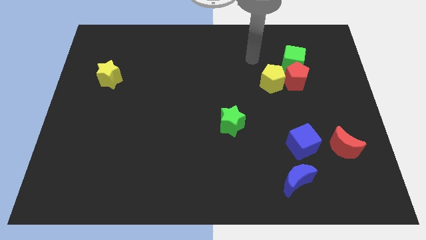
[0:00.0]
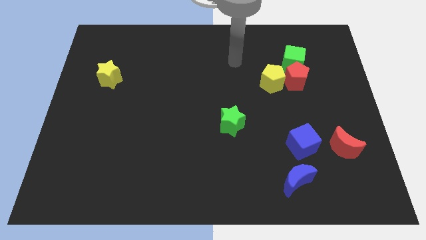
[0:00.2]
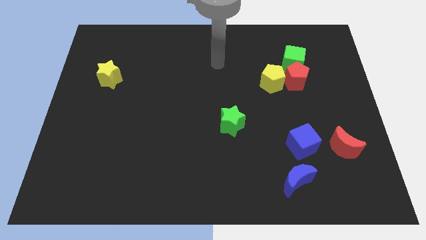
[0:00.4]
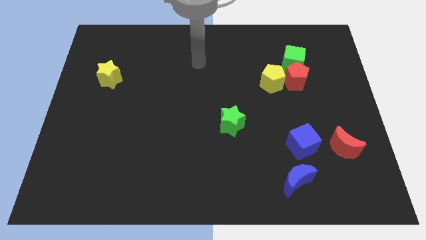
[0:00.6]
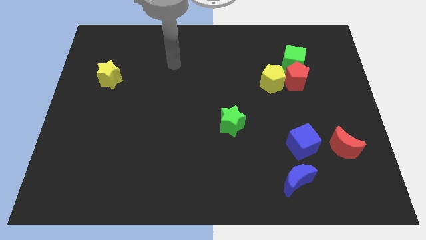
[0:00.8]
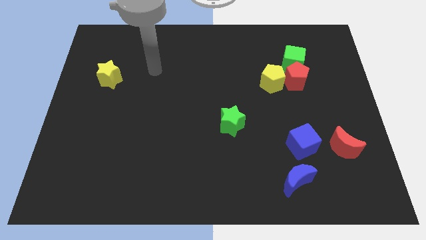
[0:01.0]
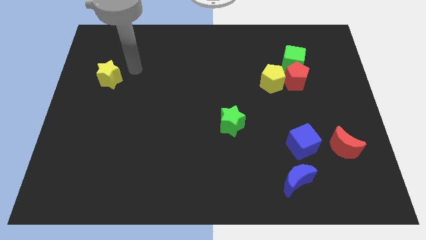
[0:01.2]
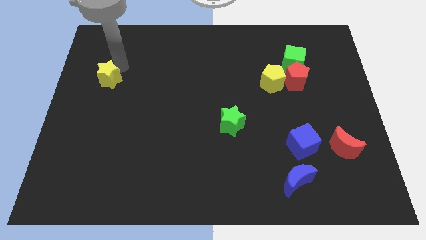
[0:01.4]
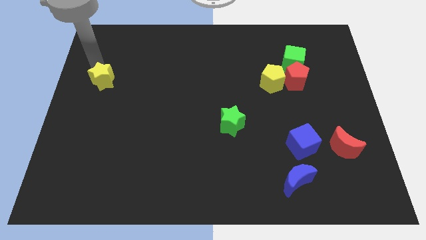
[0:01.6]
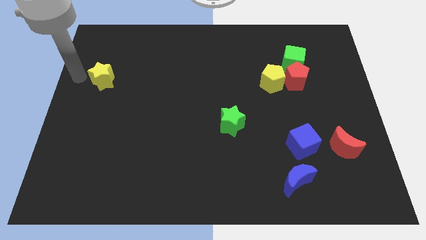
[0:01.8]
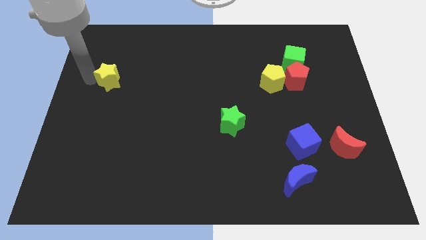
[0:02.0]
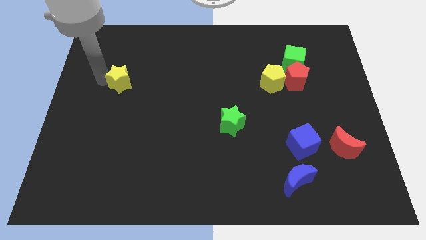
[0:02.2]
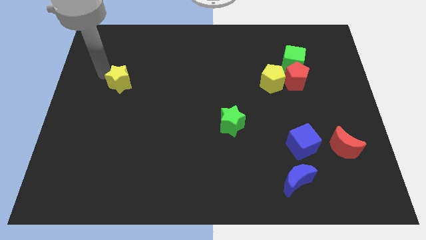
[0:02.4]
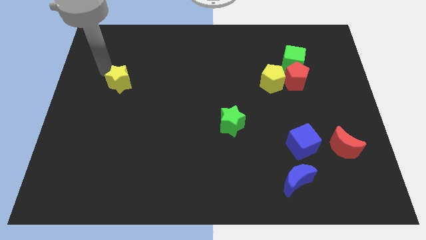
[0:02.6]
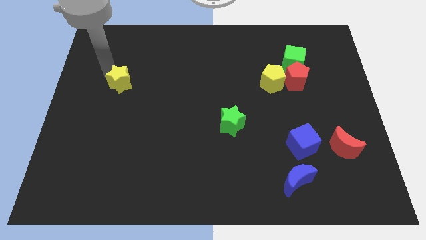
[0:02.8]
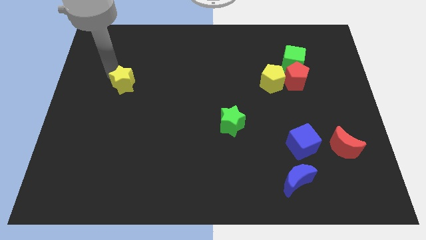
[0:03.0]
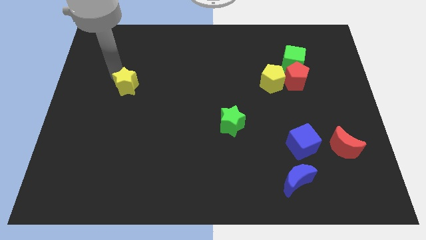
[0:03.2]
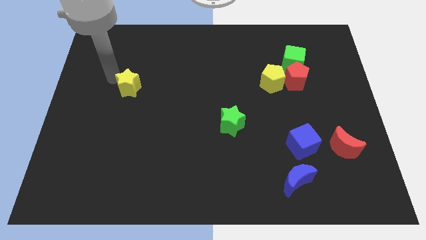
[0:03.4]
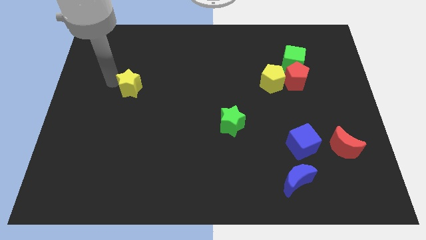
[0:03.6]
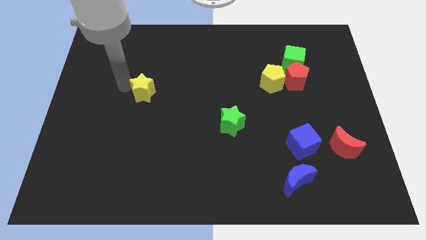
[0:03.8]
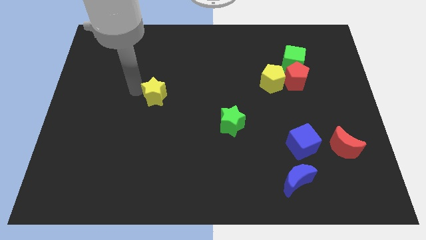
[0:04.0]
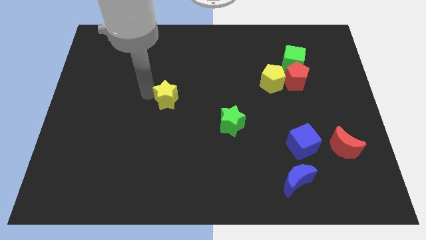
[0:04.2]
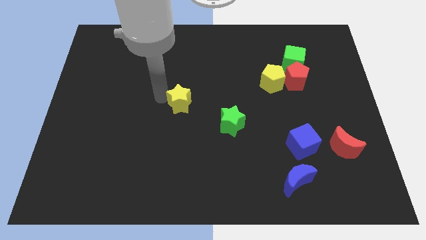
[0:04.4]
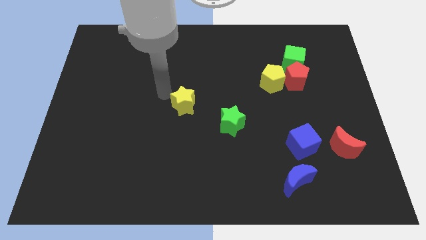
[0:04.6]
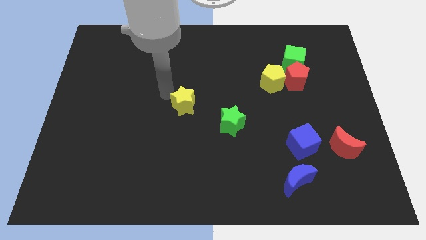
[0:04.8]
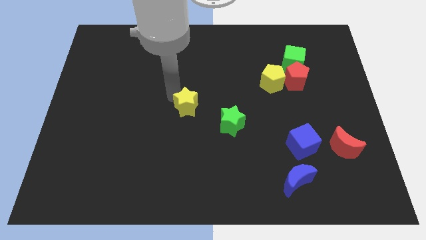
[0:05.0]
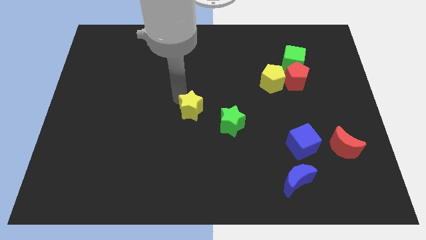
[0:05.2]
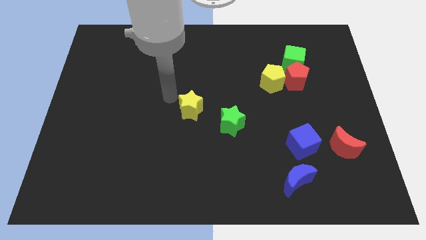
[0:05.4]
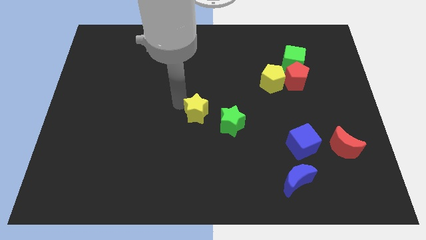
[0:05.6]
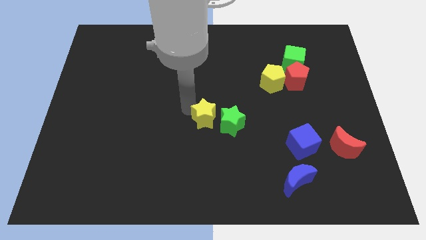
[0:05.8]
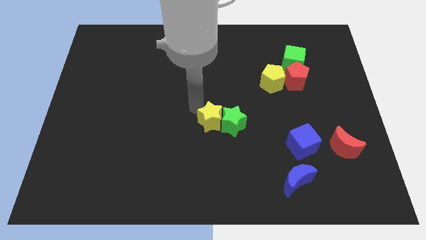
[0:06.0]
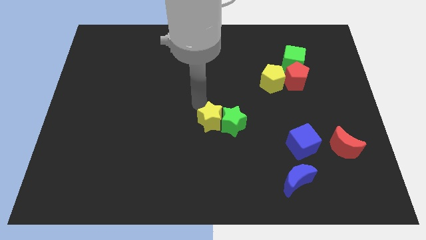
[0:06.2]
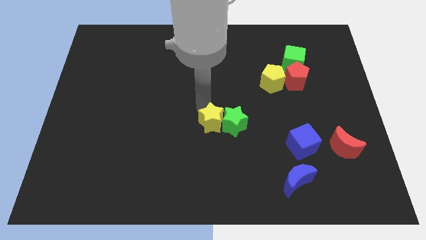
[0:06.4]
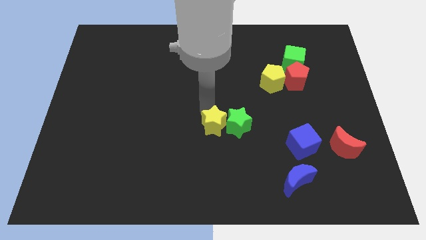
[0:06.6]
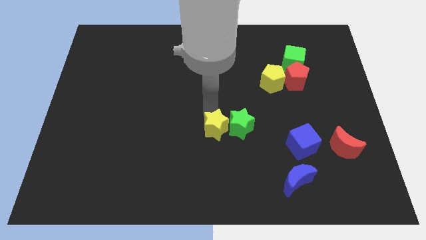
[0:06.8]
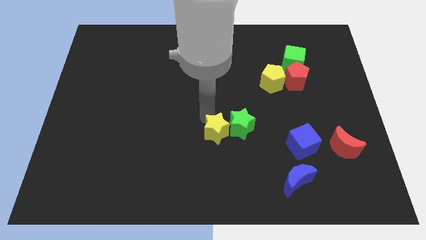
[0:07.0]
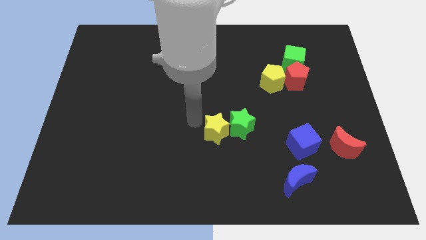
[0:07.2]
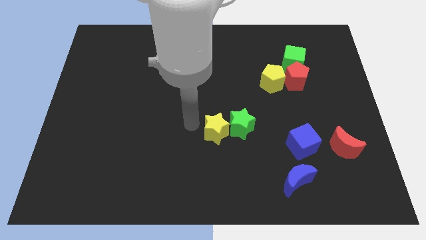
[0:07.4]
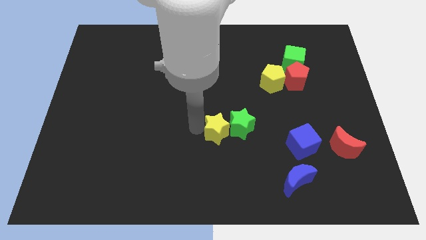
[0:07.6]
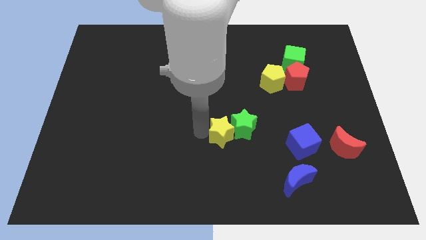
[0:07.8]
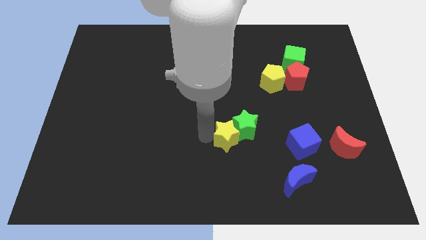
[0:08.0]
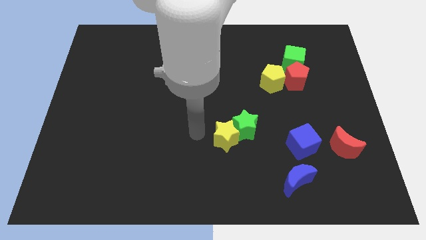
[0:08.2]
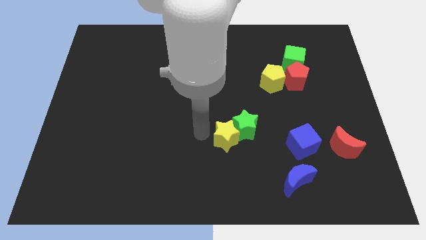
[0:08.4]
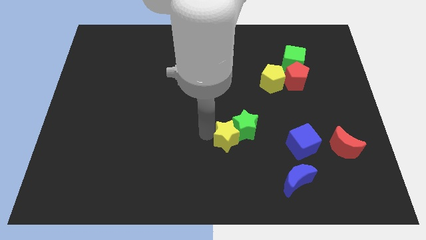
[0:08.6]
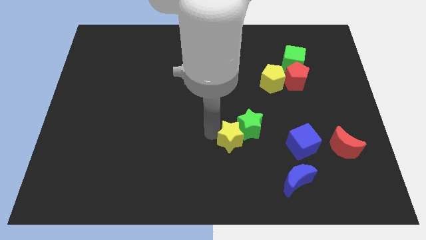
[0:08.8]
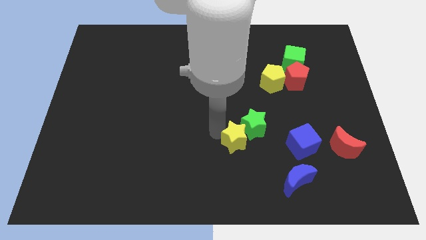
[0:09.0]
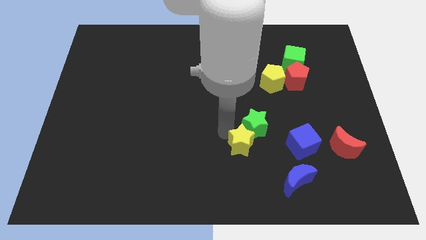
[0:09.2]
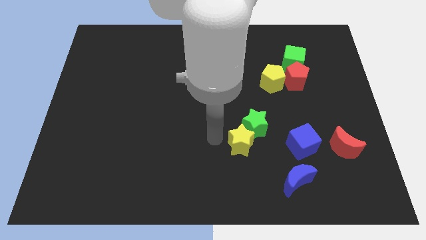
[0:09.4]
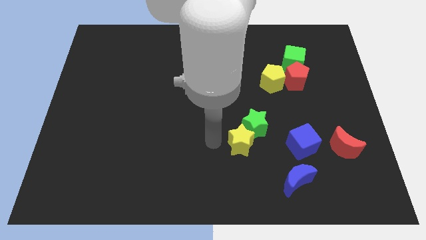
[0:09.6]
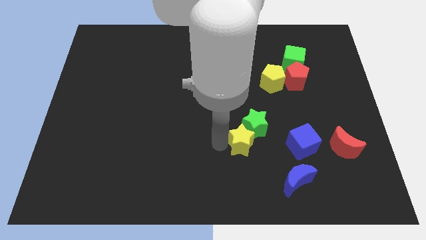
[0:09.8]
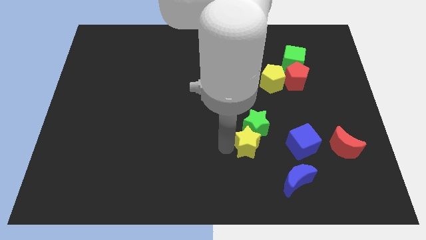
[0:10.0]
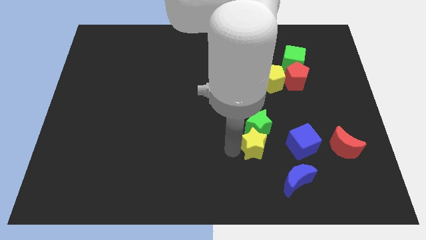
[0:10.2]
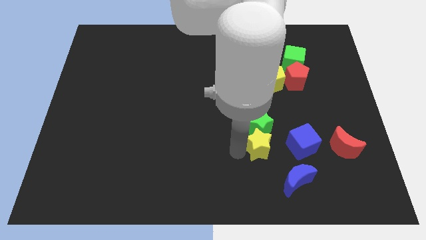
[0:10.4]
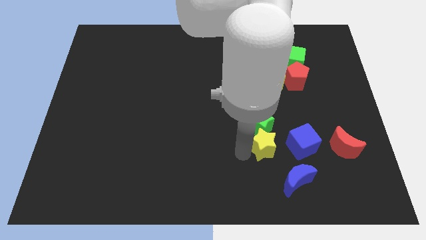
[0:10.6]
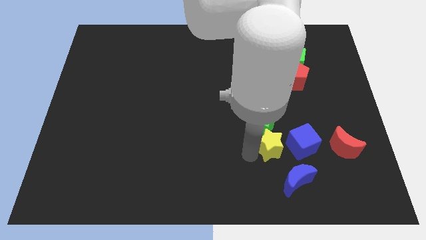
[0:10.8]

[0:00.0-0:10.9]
push the yellow star left of the red moon

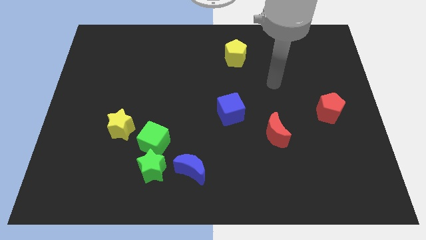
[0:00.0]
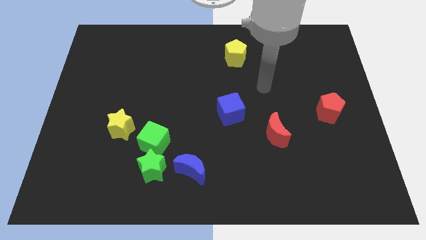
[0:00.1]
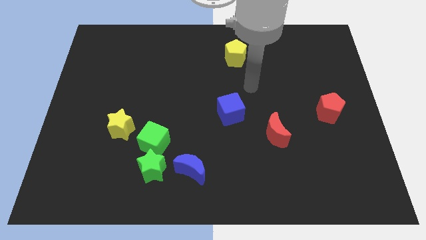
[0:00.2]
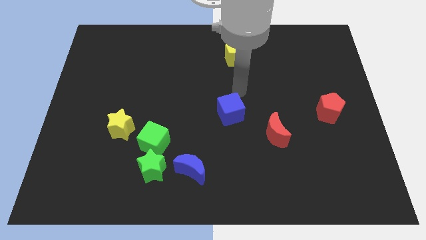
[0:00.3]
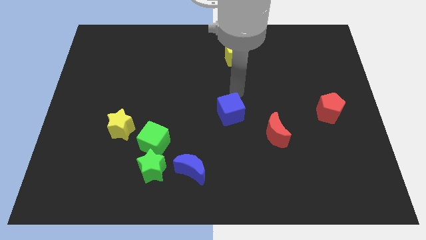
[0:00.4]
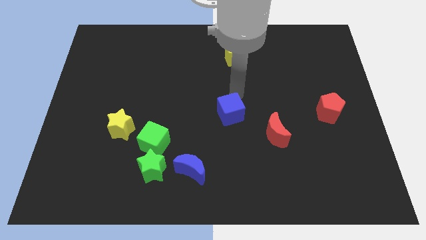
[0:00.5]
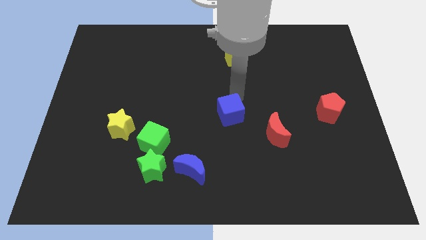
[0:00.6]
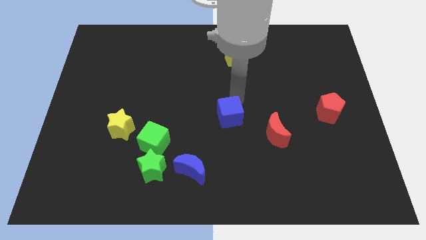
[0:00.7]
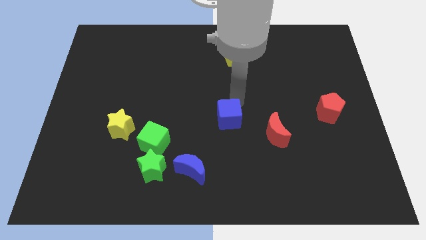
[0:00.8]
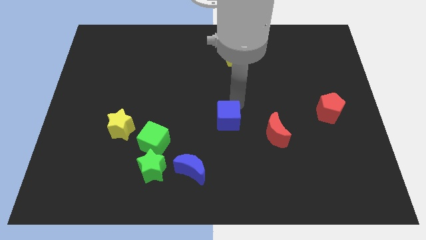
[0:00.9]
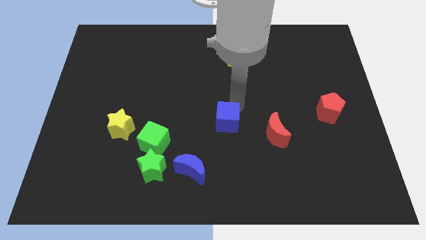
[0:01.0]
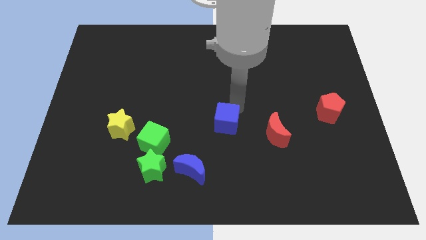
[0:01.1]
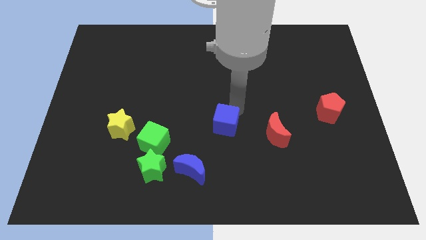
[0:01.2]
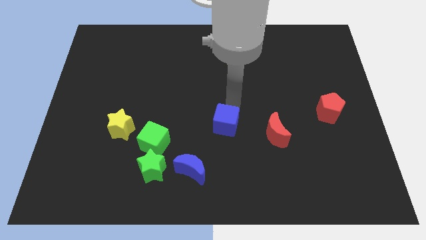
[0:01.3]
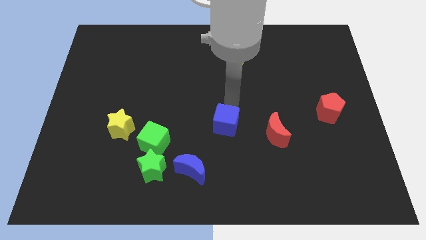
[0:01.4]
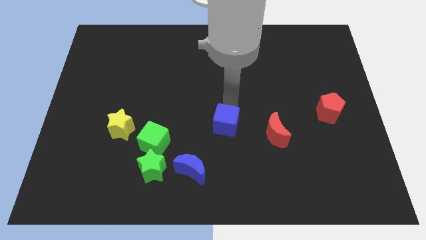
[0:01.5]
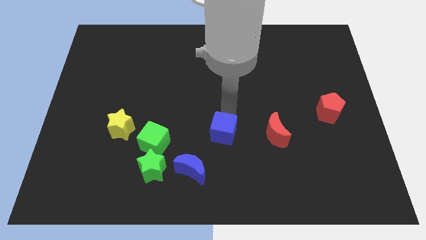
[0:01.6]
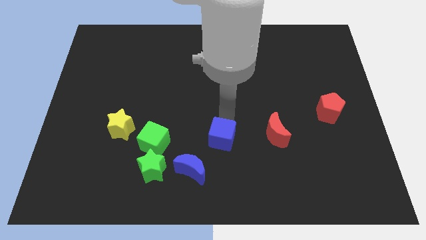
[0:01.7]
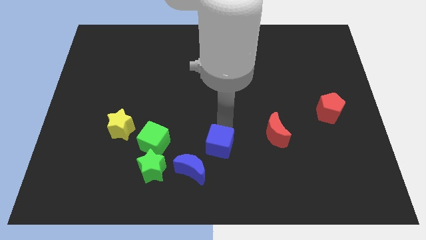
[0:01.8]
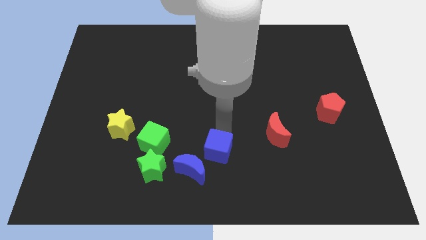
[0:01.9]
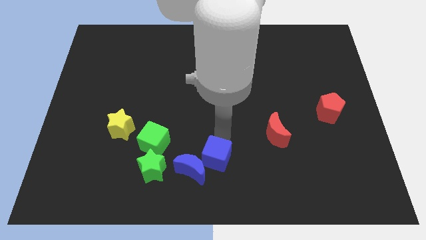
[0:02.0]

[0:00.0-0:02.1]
slide the blue cube to the right of the green star
